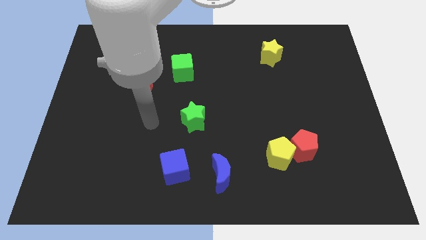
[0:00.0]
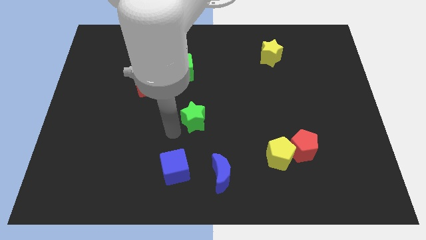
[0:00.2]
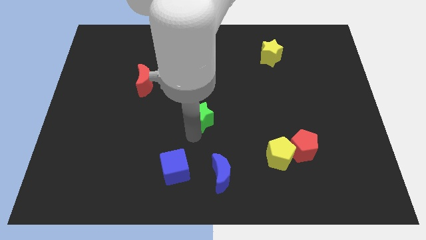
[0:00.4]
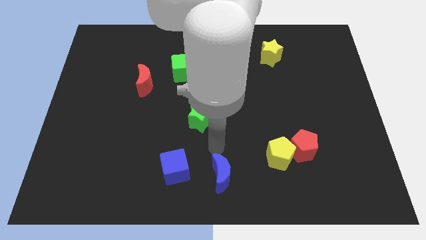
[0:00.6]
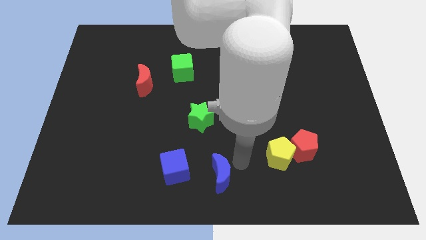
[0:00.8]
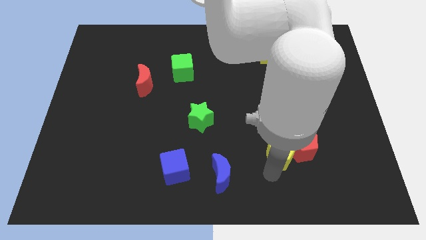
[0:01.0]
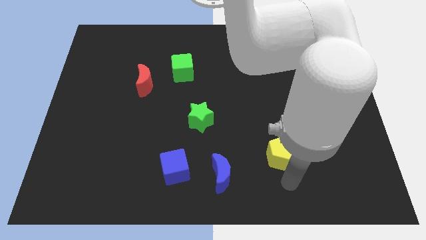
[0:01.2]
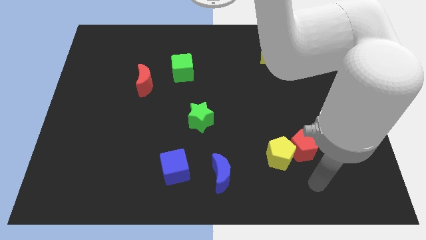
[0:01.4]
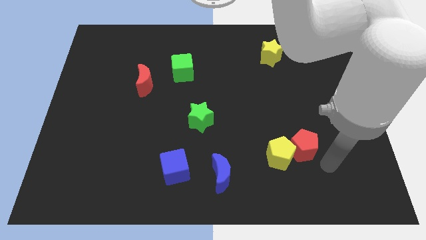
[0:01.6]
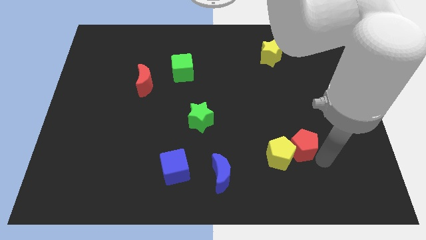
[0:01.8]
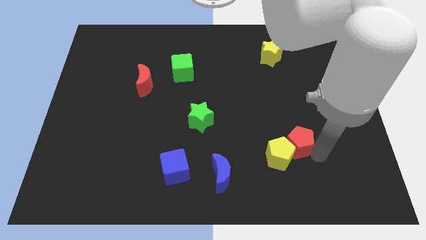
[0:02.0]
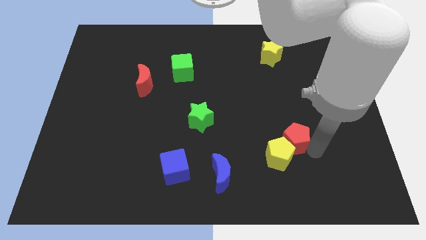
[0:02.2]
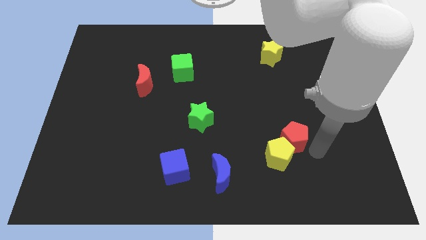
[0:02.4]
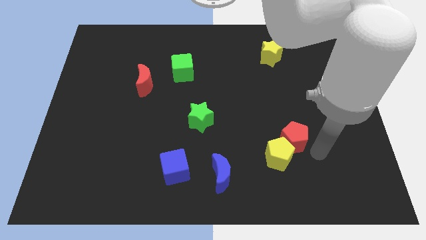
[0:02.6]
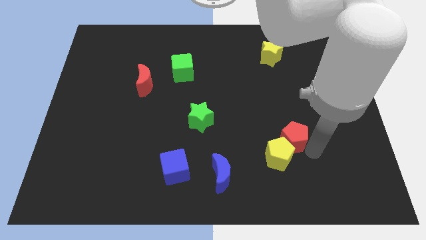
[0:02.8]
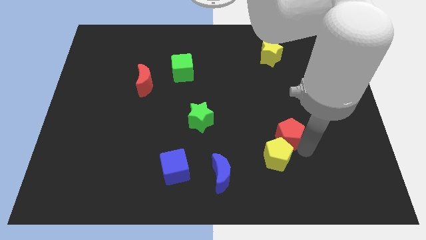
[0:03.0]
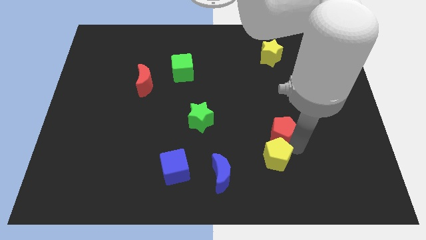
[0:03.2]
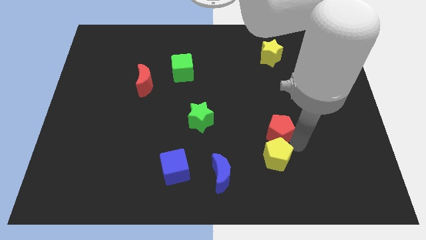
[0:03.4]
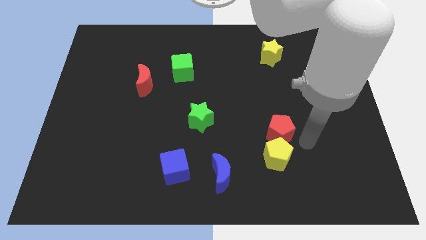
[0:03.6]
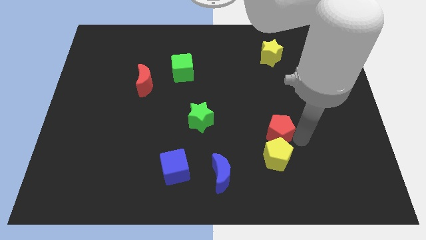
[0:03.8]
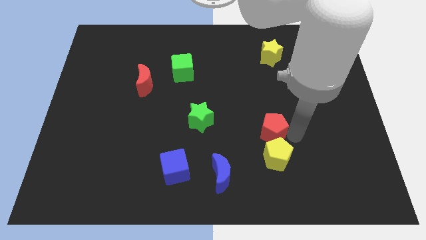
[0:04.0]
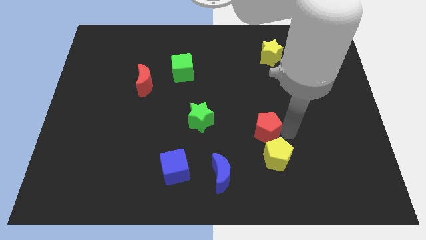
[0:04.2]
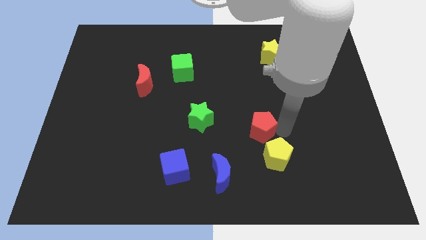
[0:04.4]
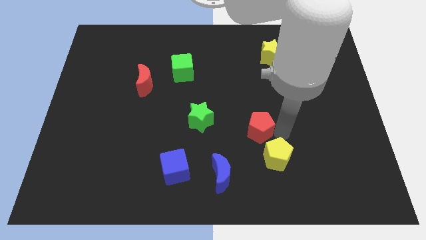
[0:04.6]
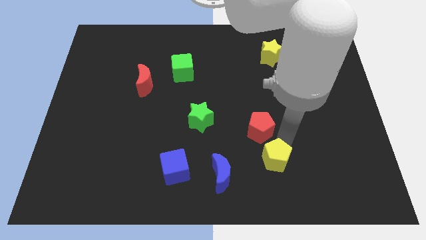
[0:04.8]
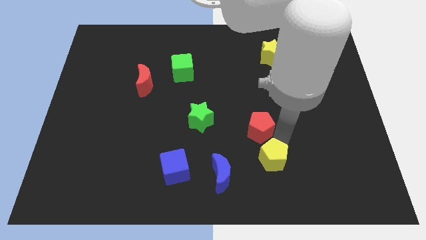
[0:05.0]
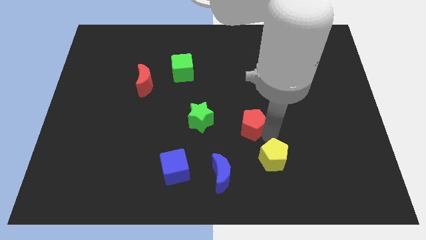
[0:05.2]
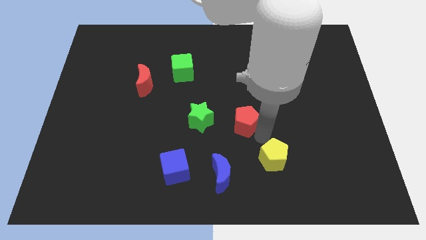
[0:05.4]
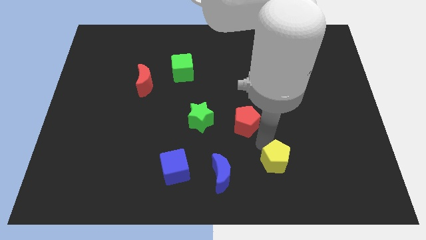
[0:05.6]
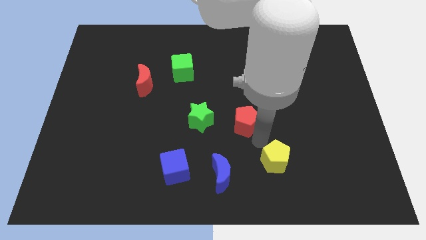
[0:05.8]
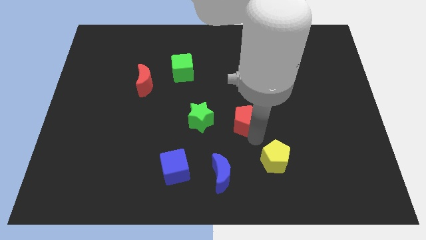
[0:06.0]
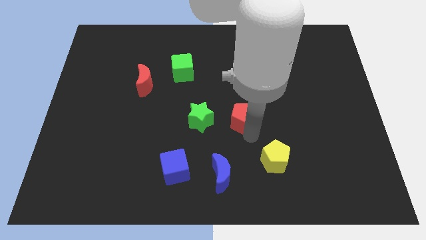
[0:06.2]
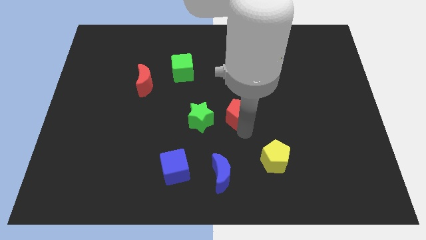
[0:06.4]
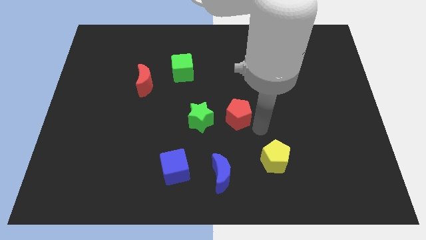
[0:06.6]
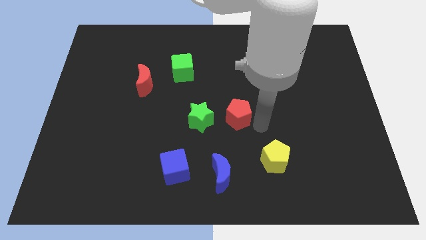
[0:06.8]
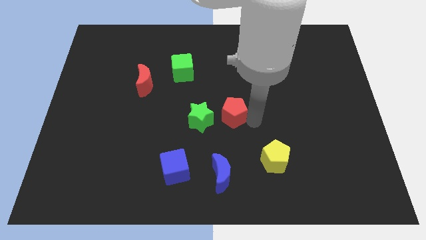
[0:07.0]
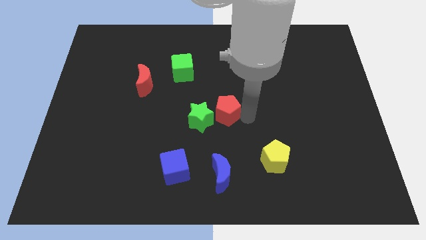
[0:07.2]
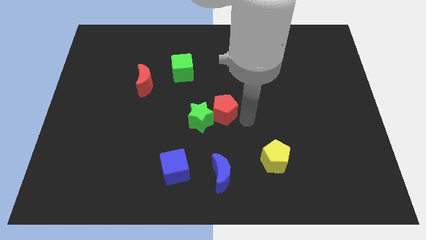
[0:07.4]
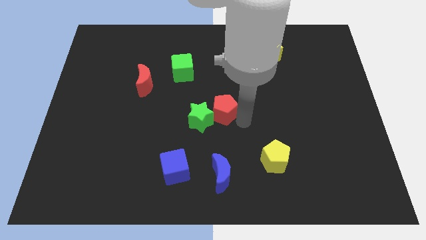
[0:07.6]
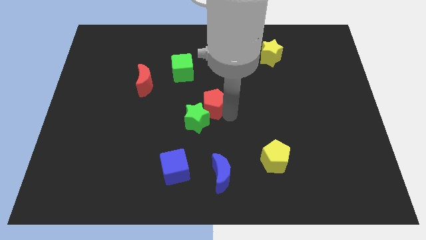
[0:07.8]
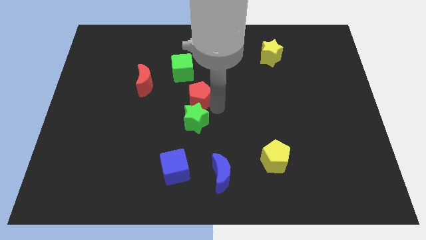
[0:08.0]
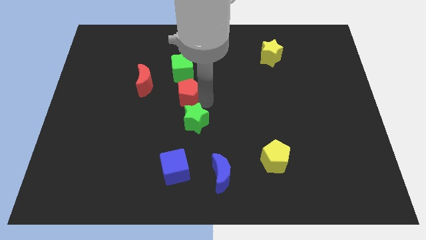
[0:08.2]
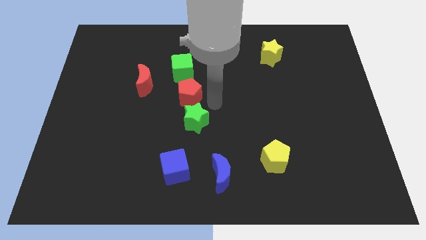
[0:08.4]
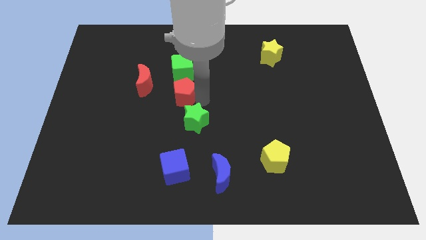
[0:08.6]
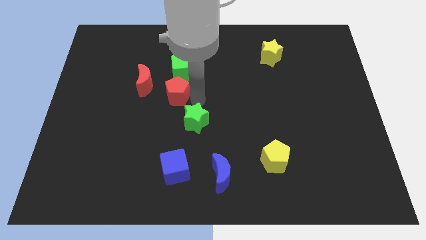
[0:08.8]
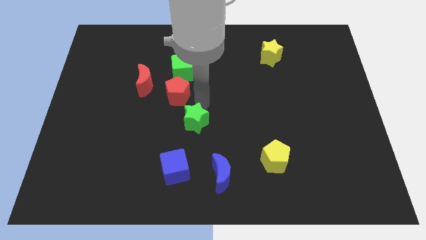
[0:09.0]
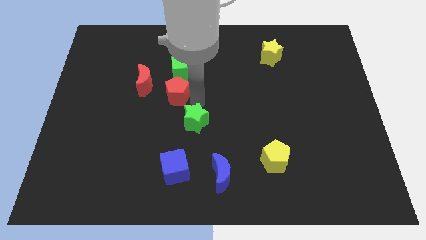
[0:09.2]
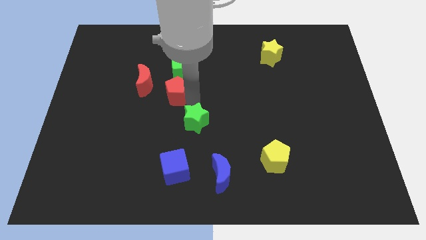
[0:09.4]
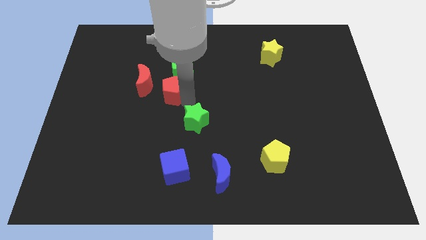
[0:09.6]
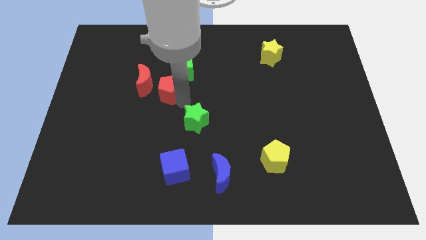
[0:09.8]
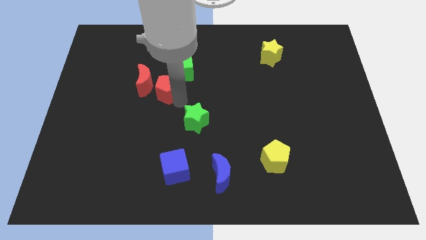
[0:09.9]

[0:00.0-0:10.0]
push the red pentagon next to the red moon

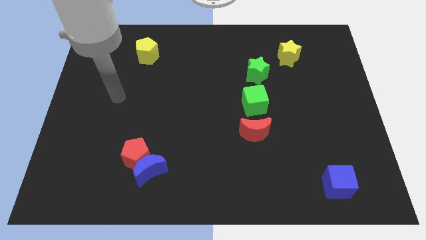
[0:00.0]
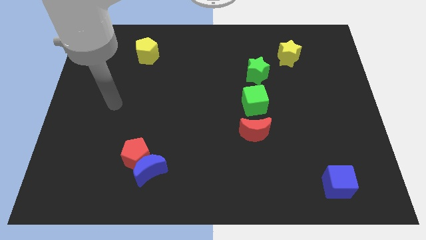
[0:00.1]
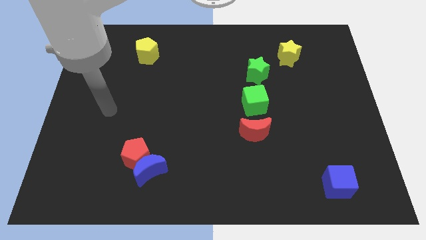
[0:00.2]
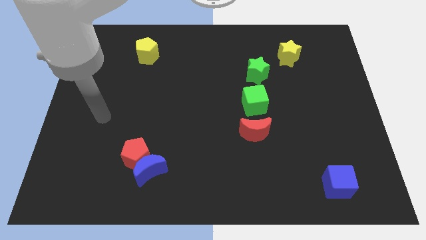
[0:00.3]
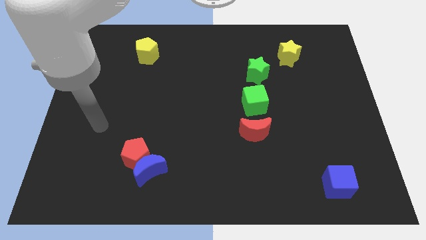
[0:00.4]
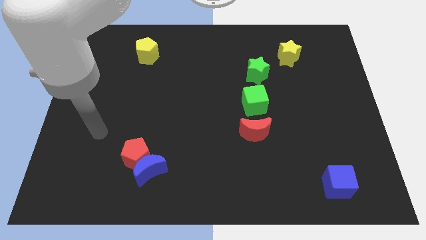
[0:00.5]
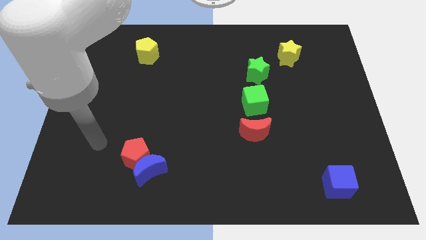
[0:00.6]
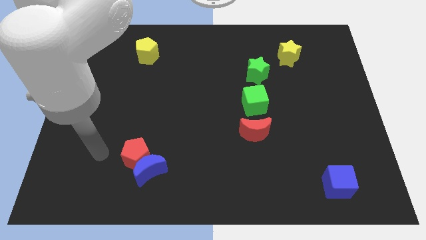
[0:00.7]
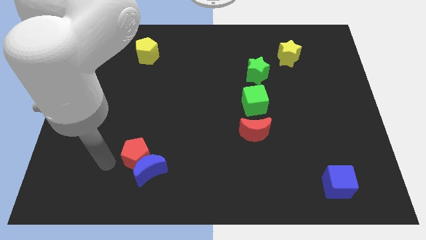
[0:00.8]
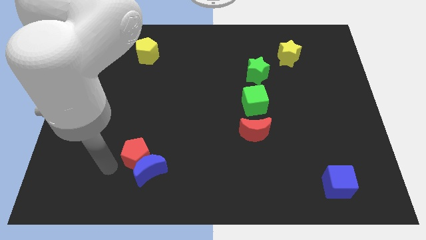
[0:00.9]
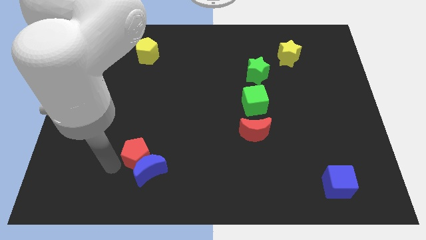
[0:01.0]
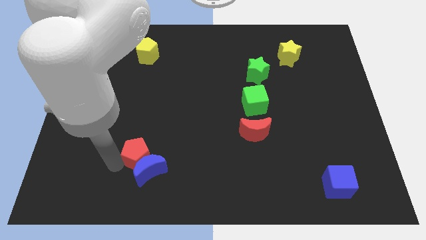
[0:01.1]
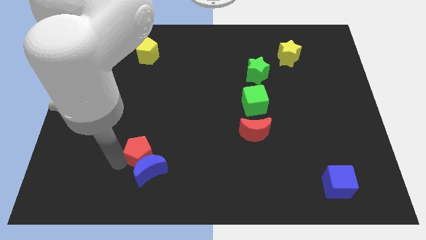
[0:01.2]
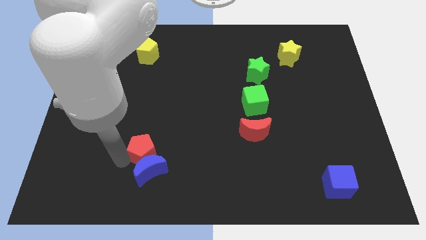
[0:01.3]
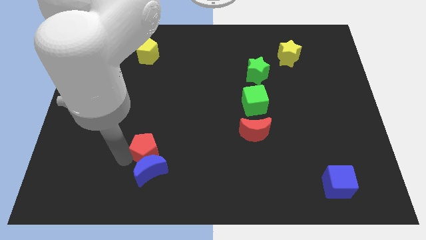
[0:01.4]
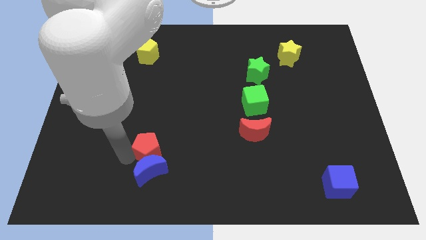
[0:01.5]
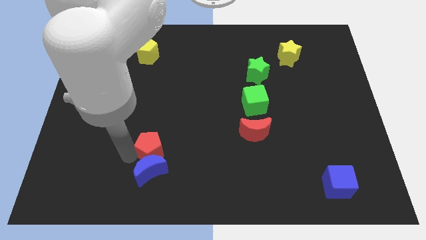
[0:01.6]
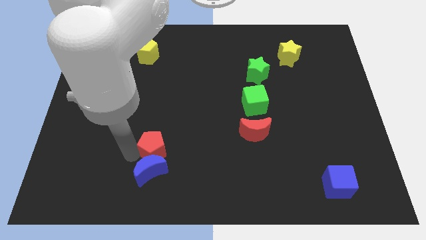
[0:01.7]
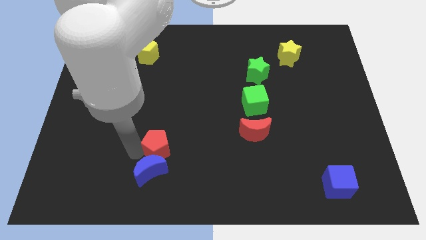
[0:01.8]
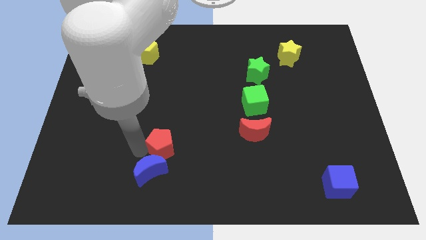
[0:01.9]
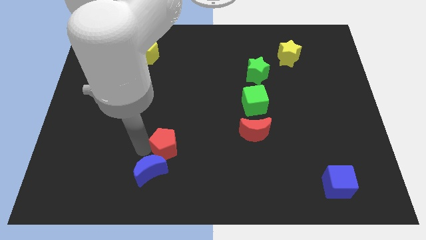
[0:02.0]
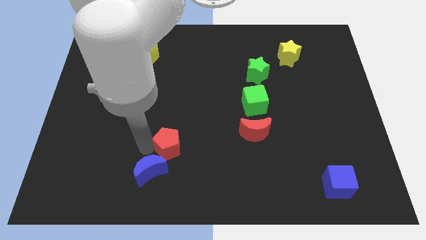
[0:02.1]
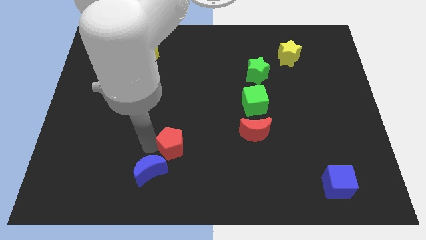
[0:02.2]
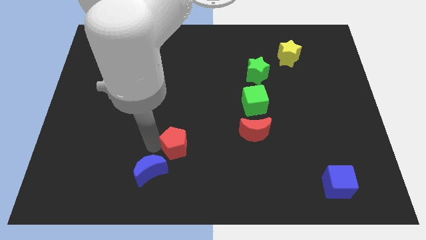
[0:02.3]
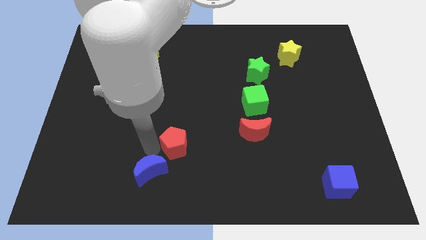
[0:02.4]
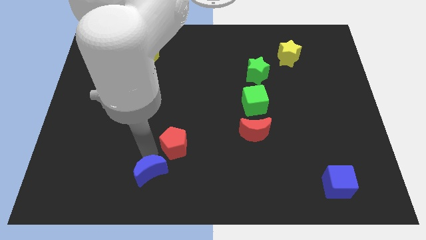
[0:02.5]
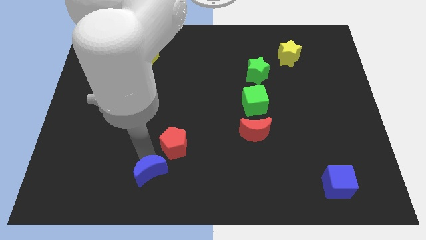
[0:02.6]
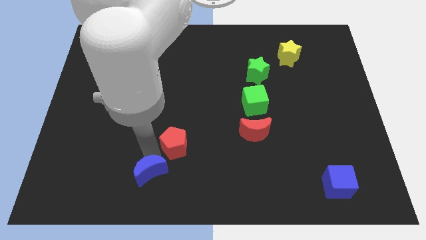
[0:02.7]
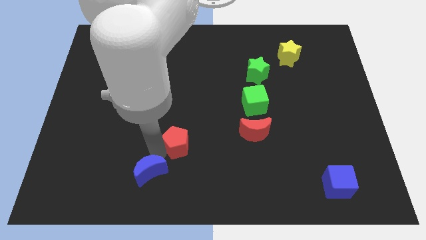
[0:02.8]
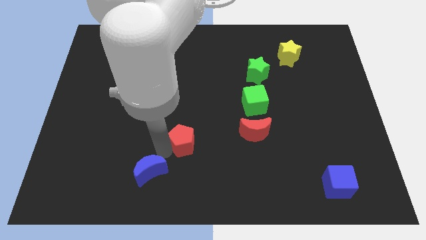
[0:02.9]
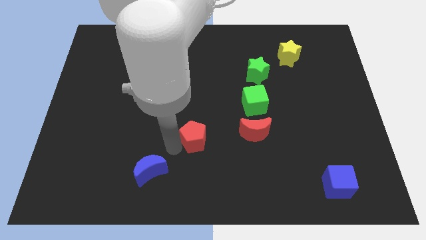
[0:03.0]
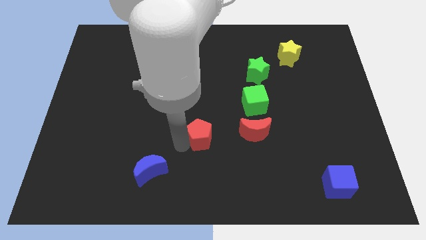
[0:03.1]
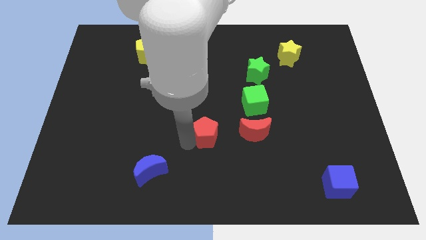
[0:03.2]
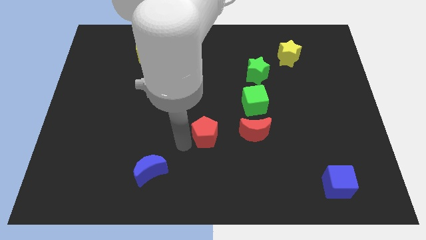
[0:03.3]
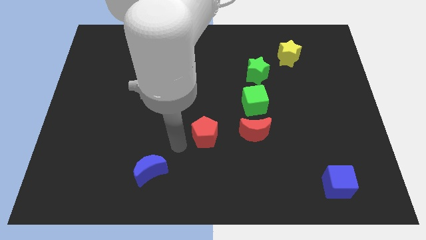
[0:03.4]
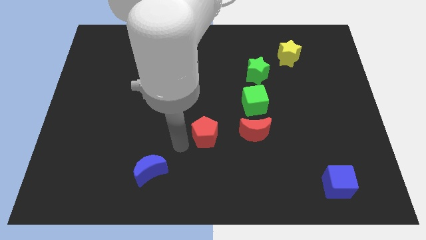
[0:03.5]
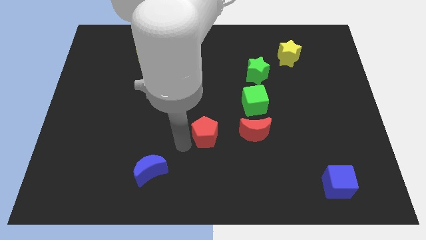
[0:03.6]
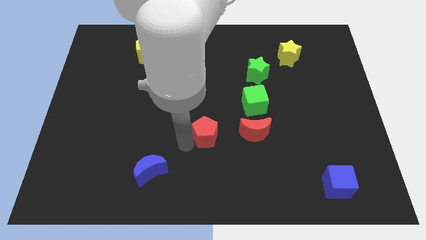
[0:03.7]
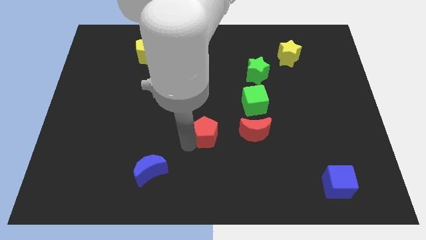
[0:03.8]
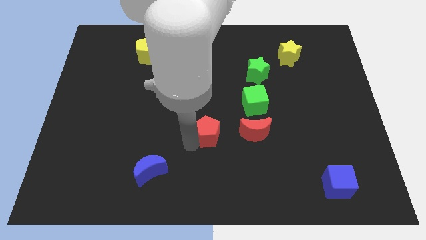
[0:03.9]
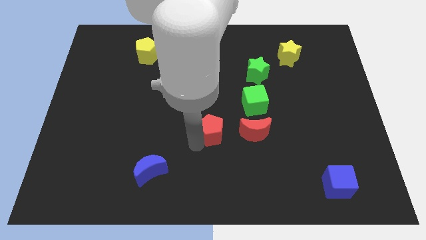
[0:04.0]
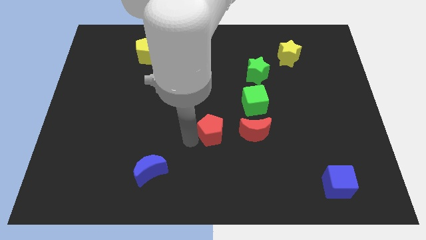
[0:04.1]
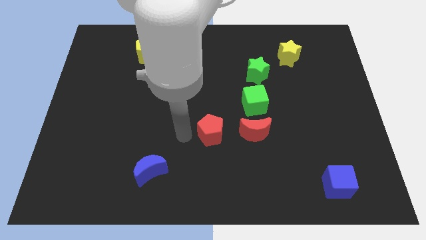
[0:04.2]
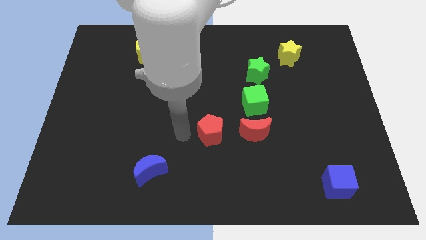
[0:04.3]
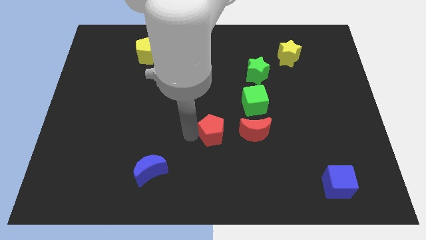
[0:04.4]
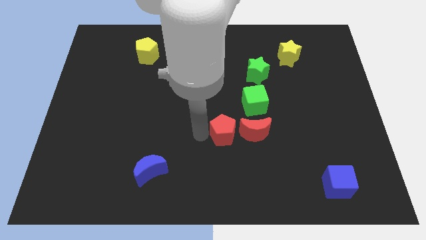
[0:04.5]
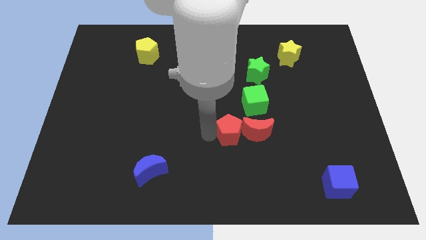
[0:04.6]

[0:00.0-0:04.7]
move the red pentagon close to the red moon
